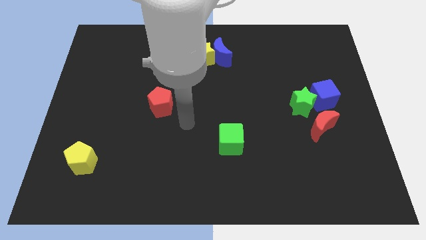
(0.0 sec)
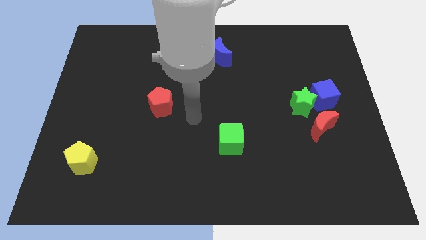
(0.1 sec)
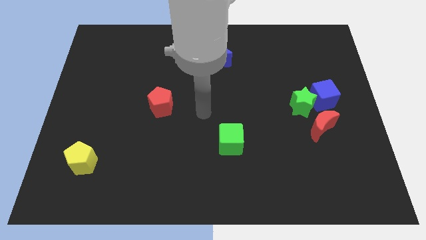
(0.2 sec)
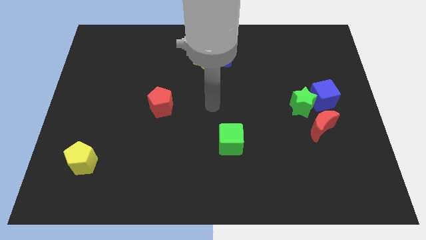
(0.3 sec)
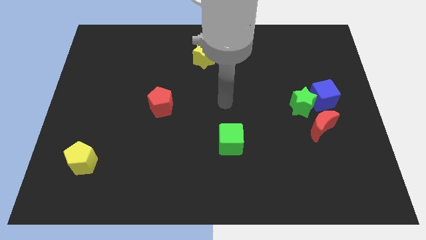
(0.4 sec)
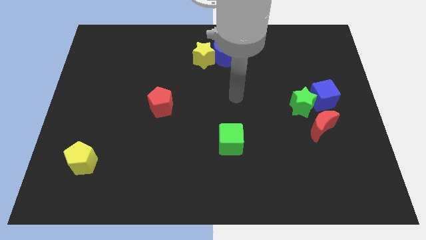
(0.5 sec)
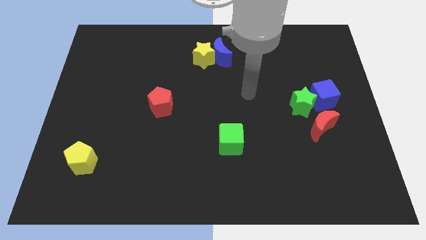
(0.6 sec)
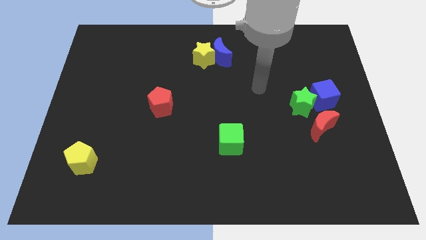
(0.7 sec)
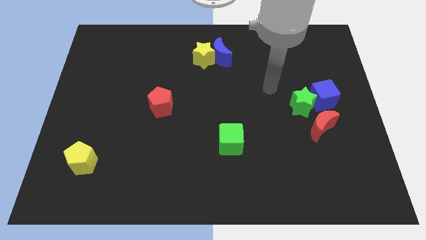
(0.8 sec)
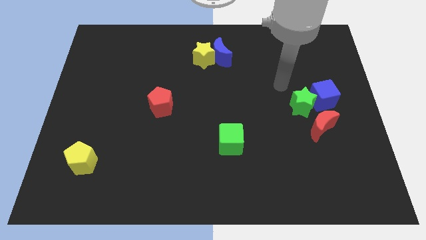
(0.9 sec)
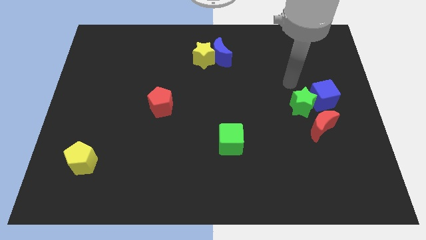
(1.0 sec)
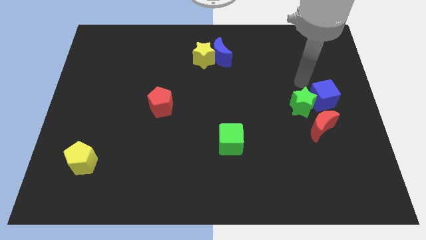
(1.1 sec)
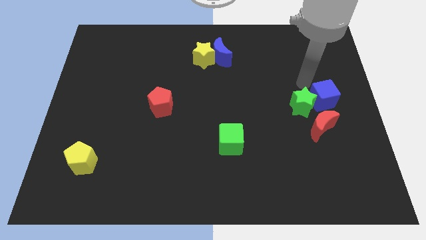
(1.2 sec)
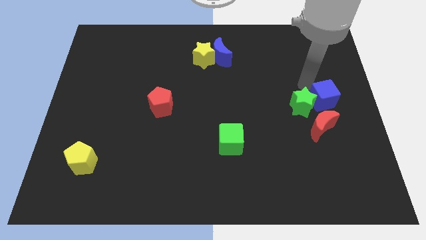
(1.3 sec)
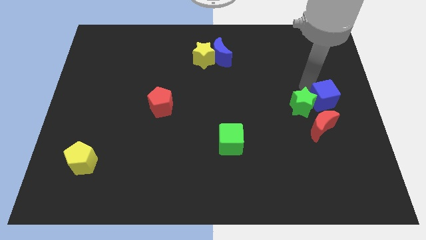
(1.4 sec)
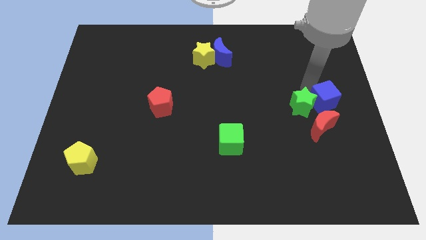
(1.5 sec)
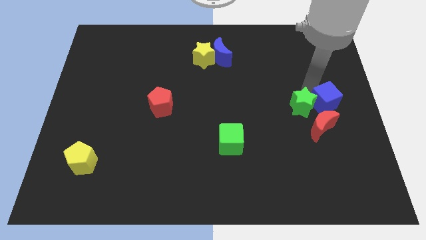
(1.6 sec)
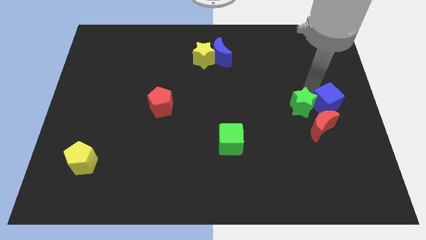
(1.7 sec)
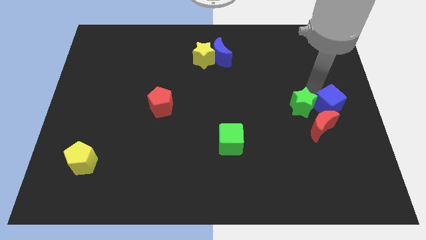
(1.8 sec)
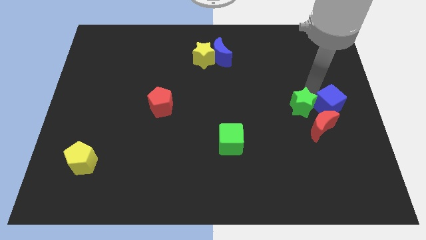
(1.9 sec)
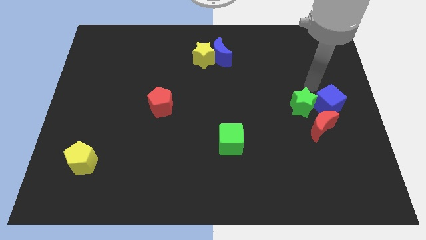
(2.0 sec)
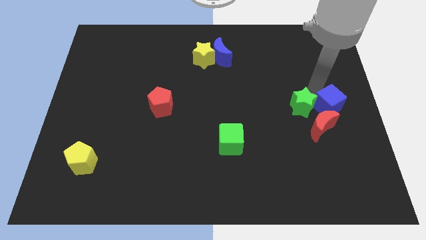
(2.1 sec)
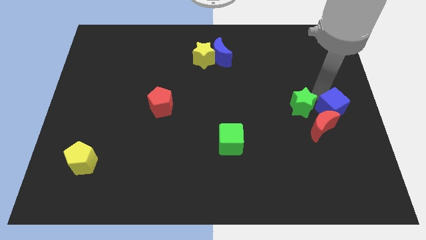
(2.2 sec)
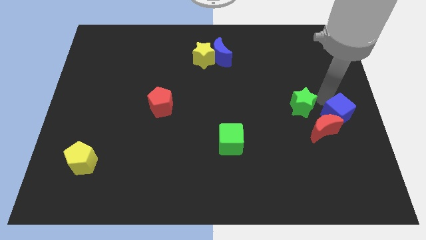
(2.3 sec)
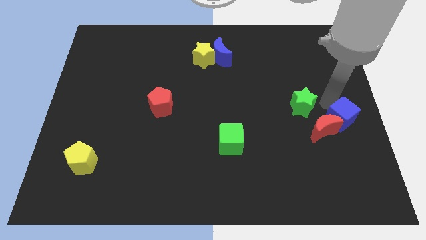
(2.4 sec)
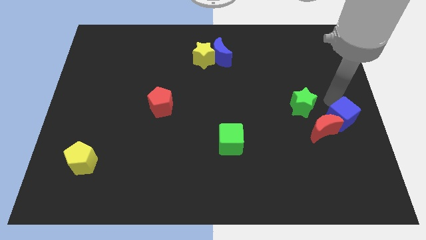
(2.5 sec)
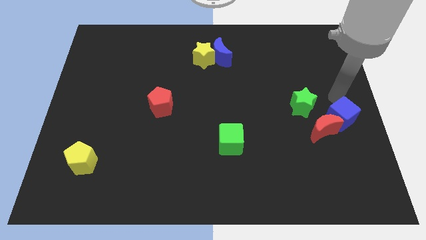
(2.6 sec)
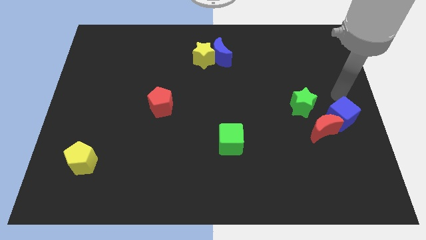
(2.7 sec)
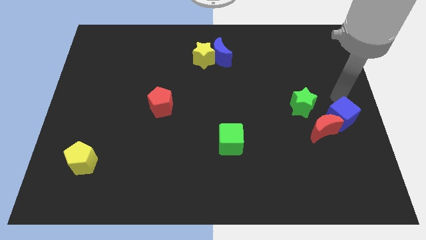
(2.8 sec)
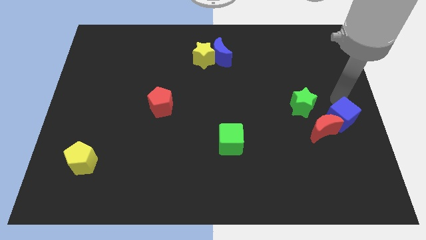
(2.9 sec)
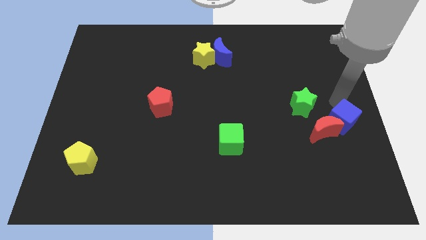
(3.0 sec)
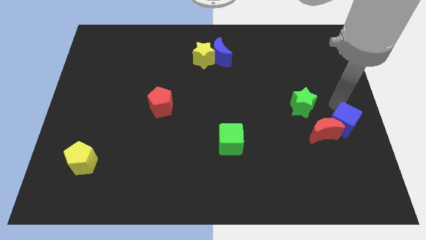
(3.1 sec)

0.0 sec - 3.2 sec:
move the blue cube down somewhat

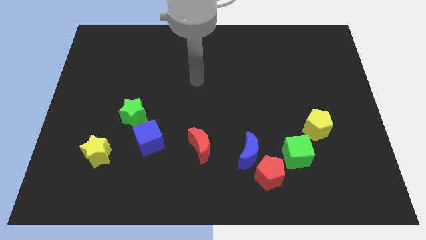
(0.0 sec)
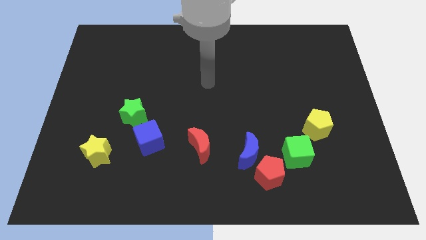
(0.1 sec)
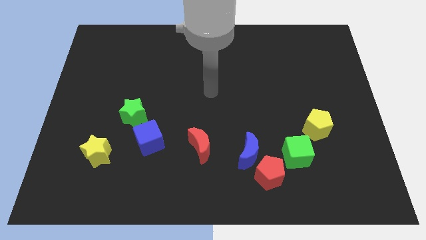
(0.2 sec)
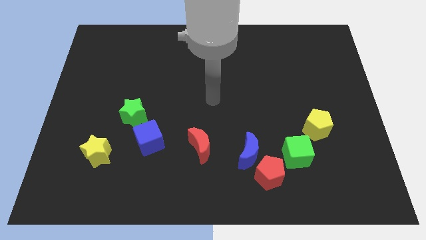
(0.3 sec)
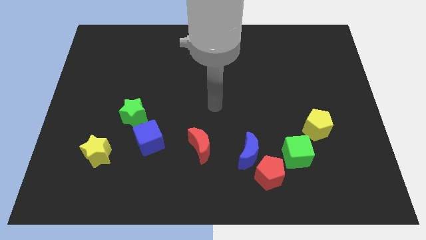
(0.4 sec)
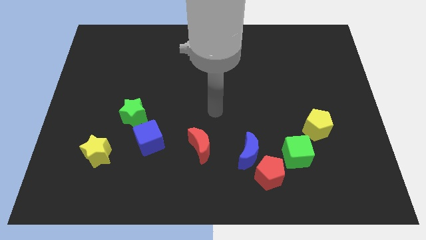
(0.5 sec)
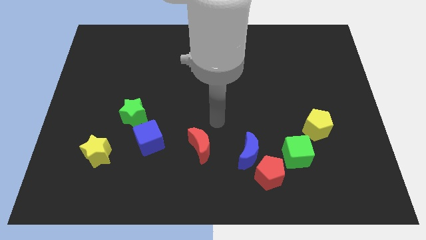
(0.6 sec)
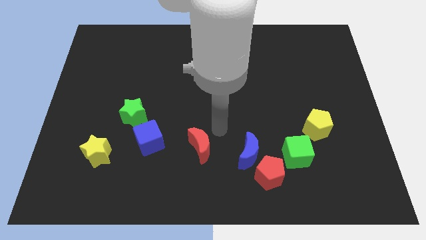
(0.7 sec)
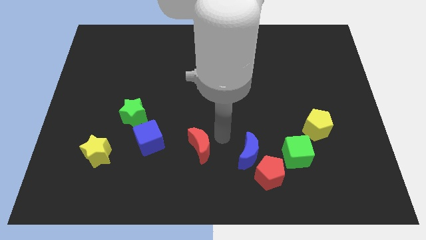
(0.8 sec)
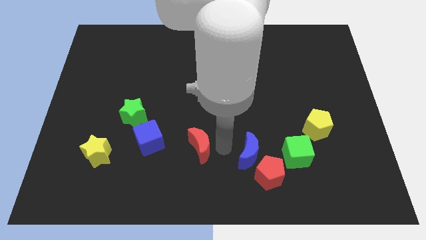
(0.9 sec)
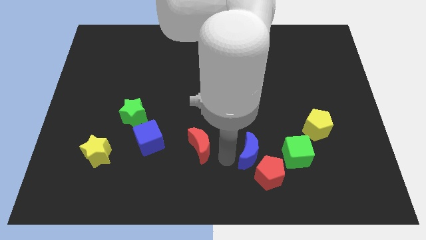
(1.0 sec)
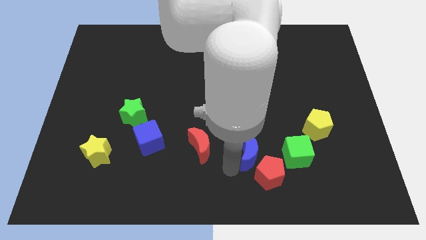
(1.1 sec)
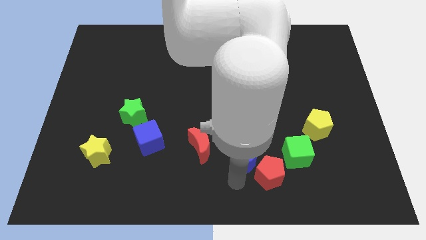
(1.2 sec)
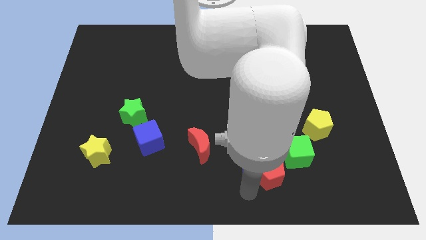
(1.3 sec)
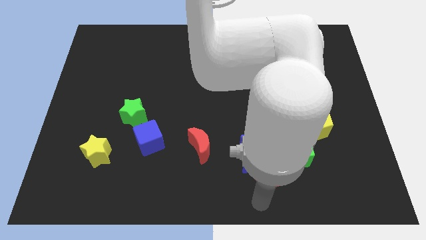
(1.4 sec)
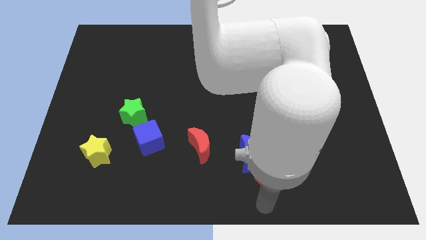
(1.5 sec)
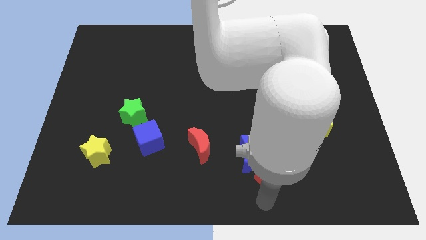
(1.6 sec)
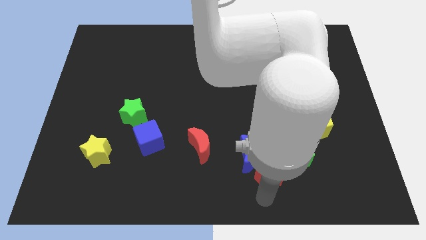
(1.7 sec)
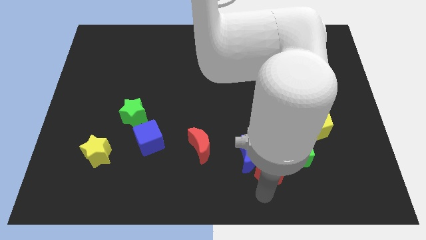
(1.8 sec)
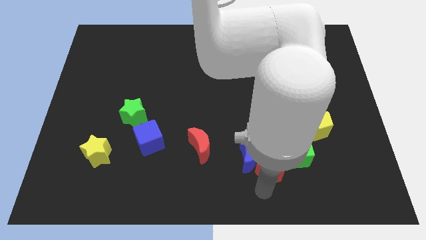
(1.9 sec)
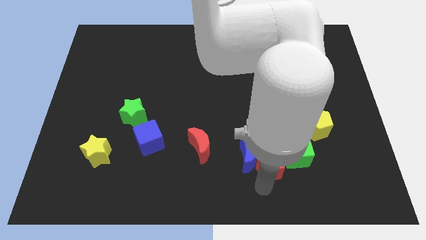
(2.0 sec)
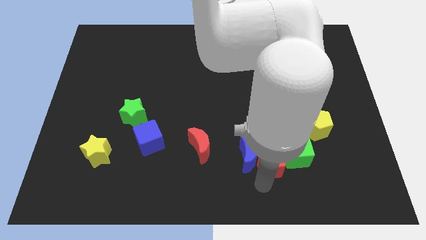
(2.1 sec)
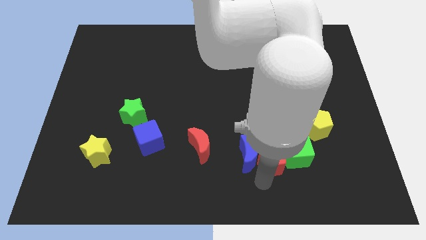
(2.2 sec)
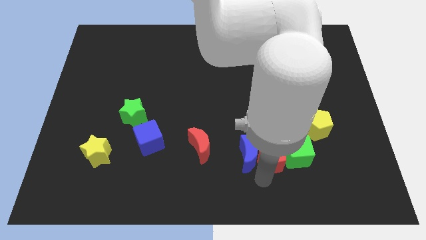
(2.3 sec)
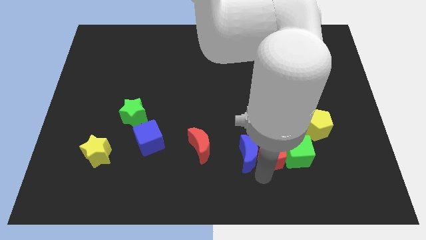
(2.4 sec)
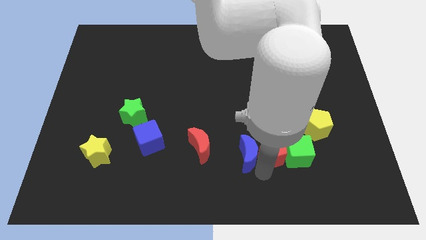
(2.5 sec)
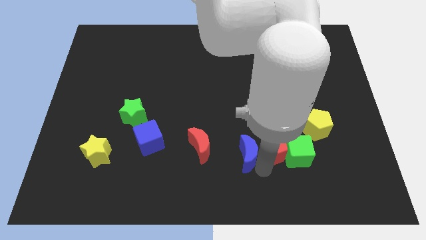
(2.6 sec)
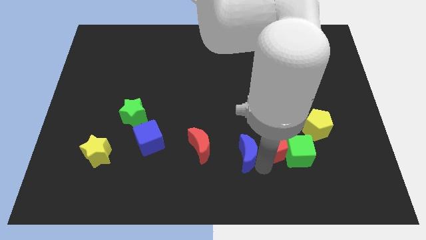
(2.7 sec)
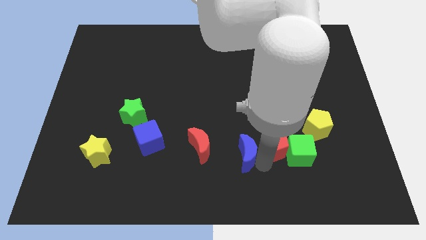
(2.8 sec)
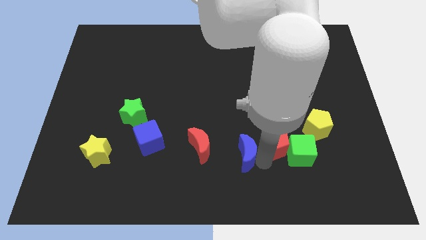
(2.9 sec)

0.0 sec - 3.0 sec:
push the red pentagon upwards slightly

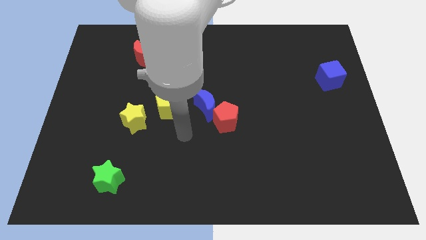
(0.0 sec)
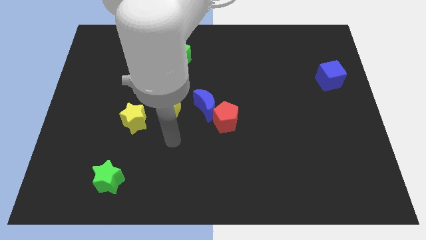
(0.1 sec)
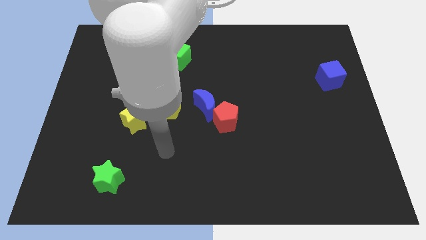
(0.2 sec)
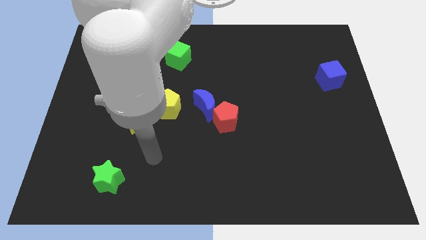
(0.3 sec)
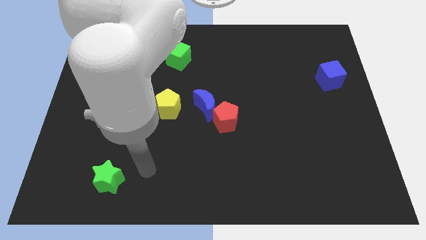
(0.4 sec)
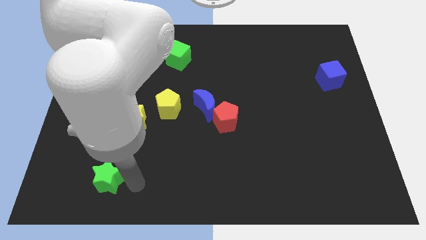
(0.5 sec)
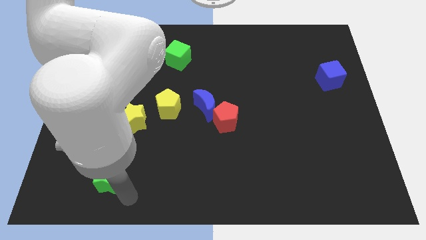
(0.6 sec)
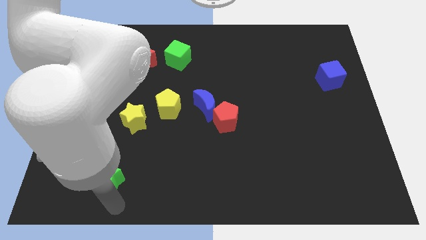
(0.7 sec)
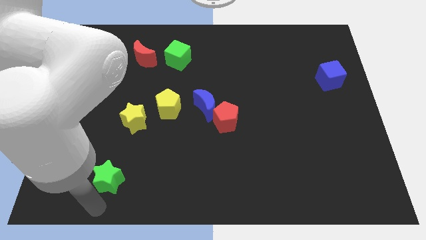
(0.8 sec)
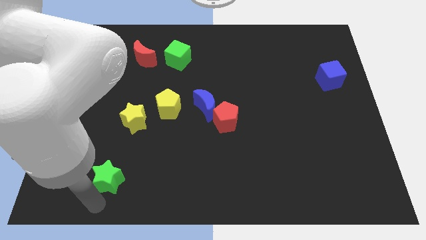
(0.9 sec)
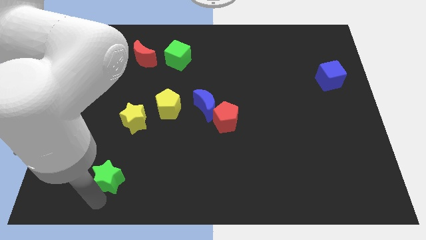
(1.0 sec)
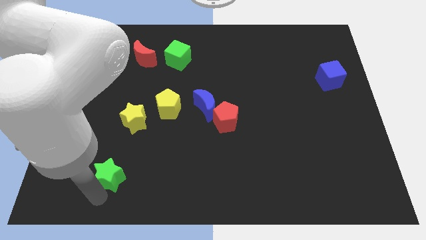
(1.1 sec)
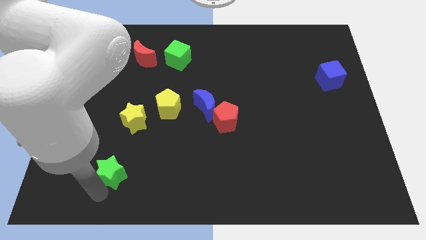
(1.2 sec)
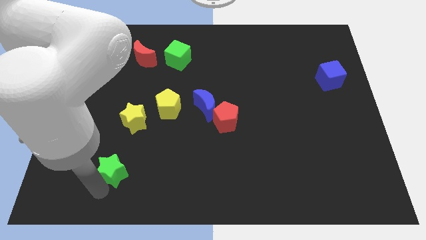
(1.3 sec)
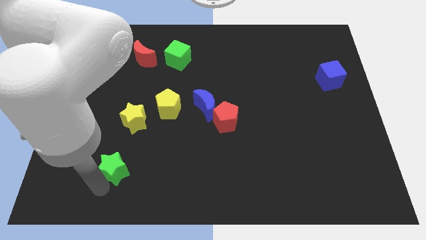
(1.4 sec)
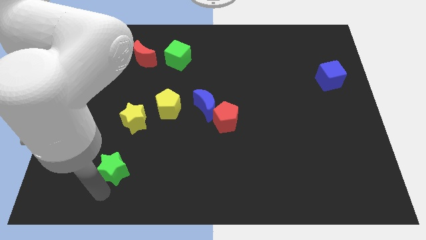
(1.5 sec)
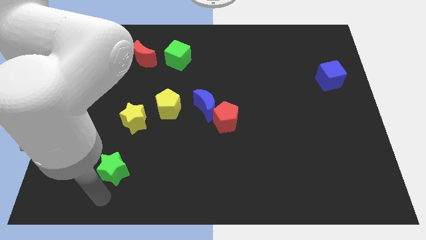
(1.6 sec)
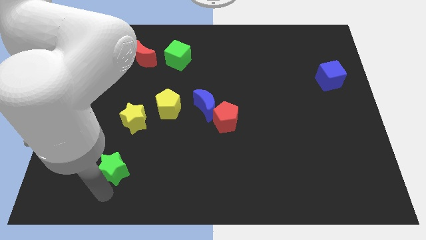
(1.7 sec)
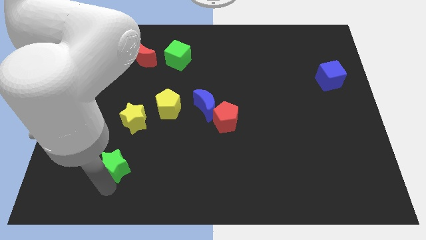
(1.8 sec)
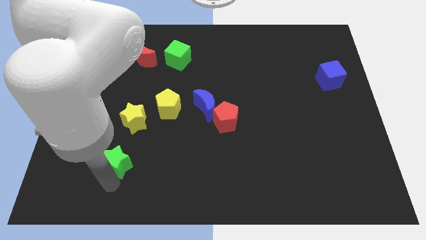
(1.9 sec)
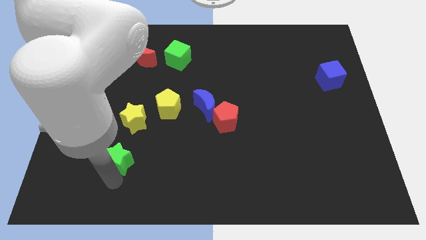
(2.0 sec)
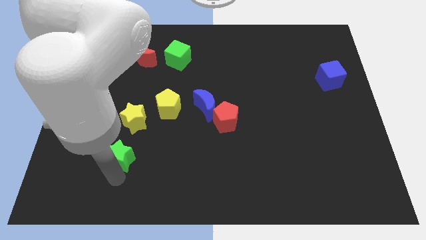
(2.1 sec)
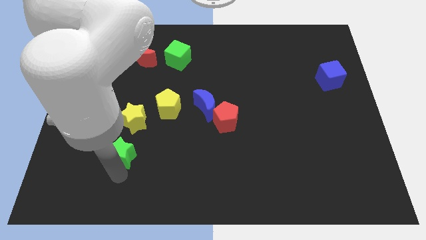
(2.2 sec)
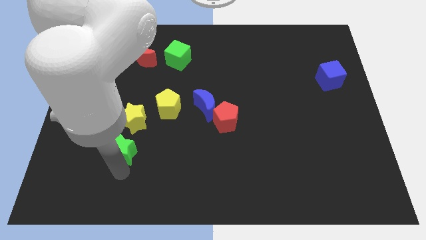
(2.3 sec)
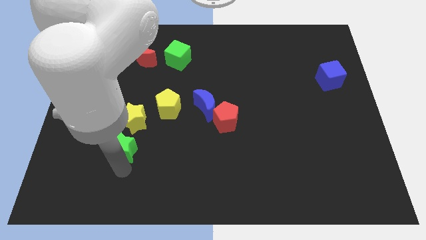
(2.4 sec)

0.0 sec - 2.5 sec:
slide the green star a bit up
